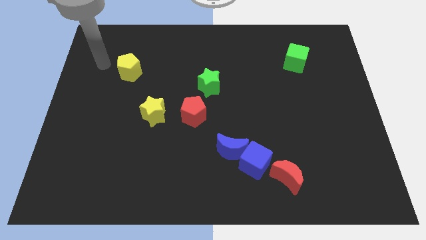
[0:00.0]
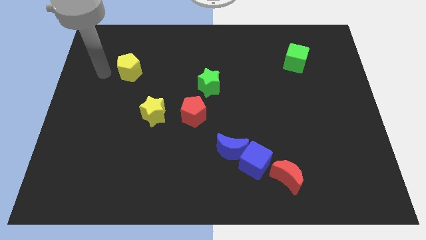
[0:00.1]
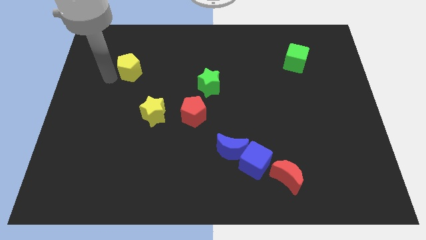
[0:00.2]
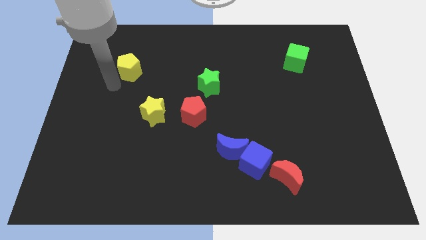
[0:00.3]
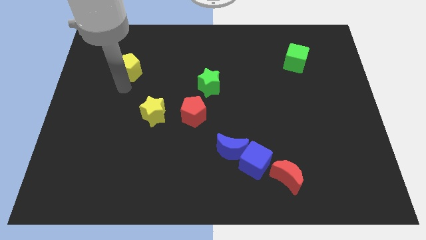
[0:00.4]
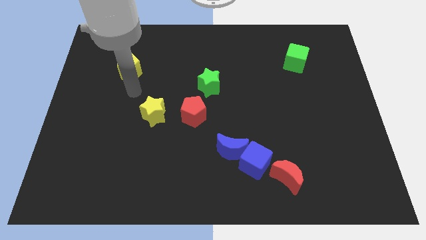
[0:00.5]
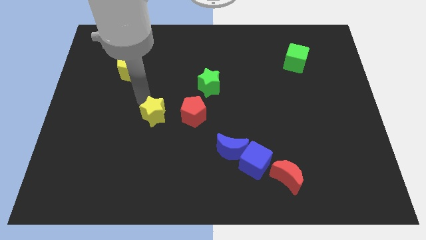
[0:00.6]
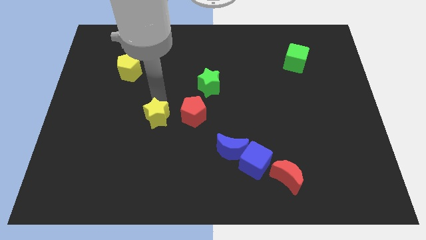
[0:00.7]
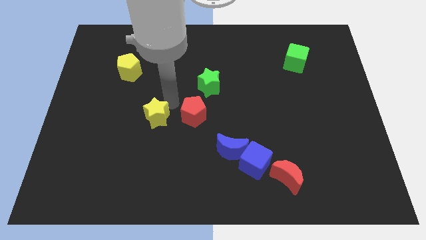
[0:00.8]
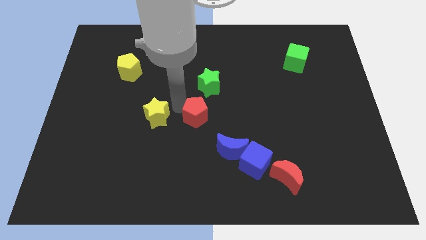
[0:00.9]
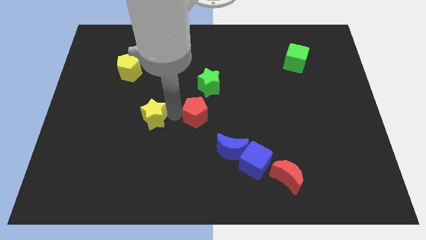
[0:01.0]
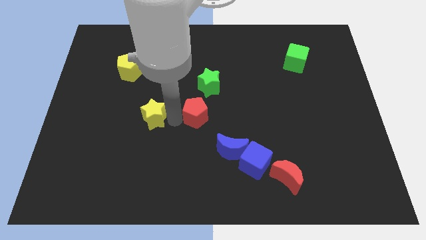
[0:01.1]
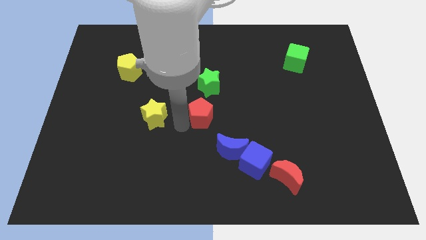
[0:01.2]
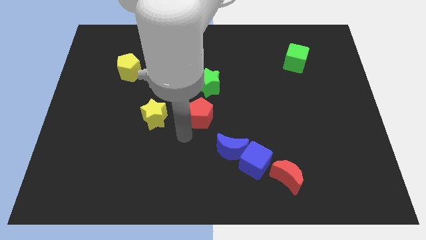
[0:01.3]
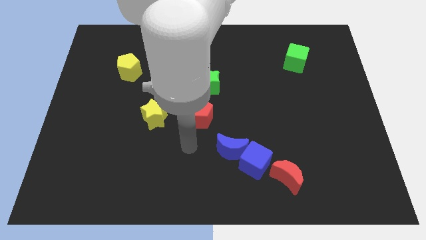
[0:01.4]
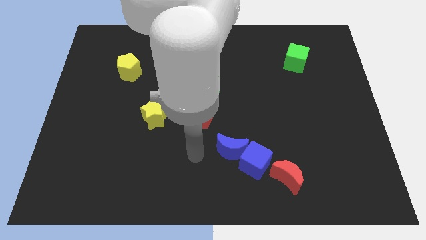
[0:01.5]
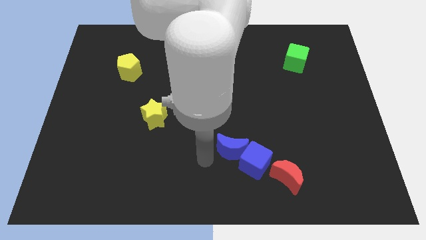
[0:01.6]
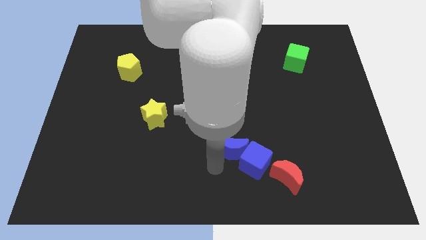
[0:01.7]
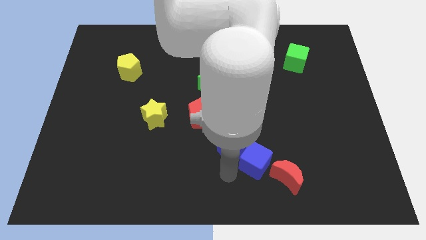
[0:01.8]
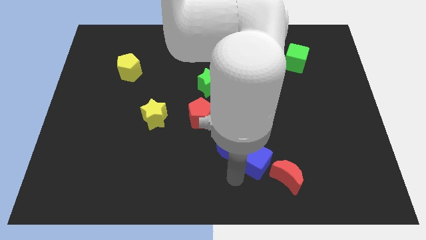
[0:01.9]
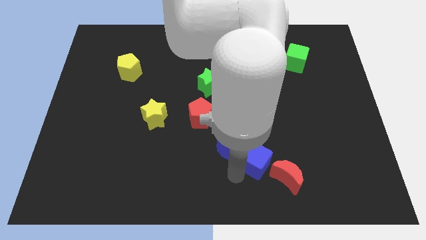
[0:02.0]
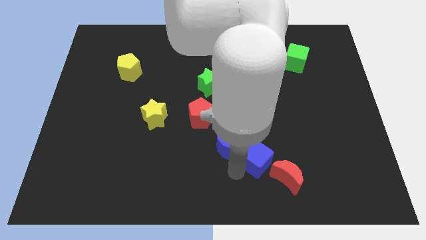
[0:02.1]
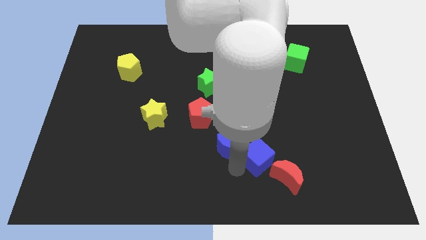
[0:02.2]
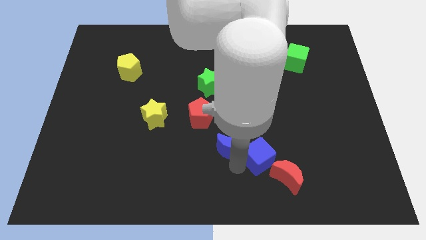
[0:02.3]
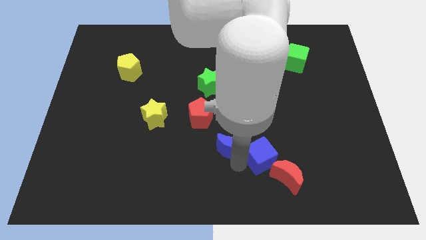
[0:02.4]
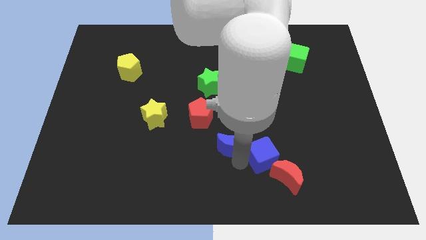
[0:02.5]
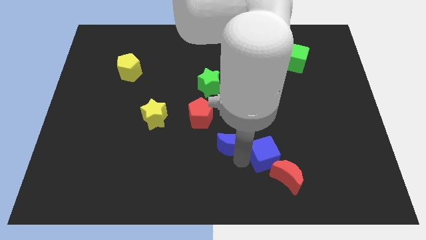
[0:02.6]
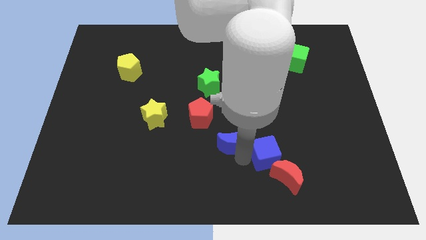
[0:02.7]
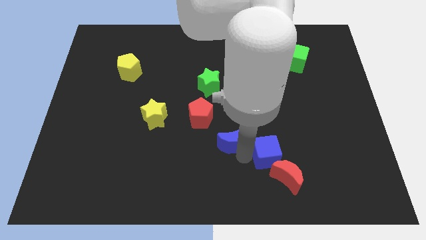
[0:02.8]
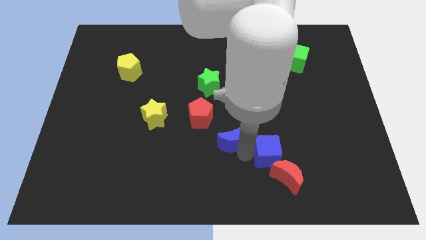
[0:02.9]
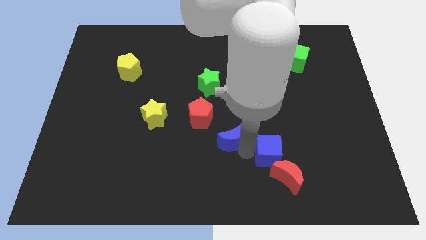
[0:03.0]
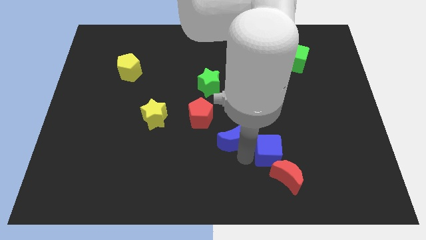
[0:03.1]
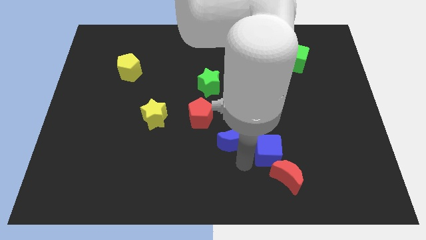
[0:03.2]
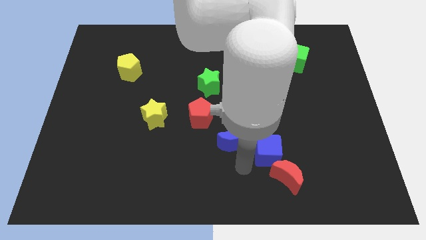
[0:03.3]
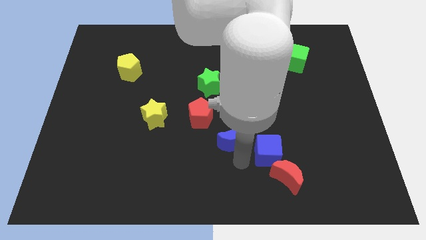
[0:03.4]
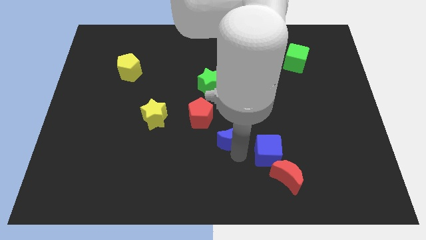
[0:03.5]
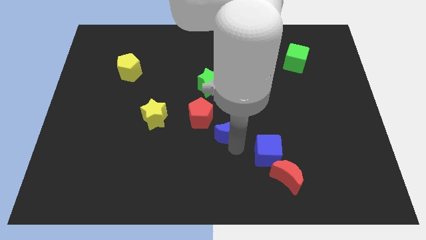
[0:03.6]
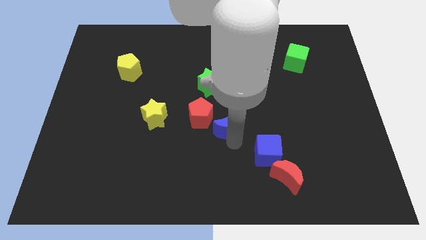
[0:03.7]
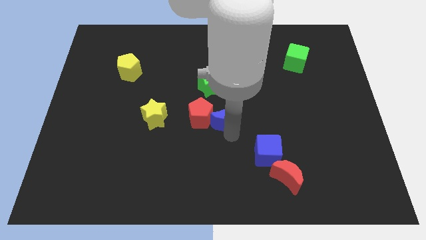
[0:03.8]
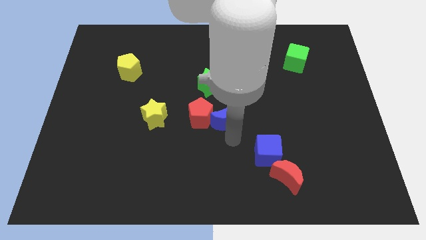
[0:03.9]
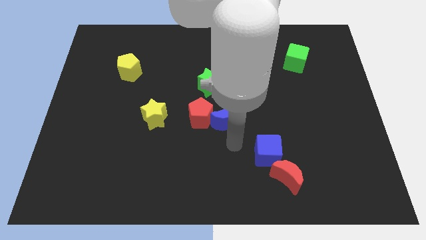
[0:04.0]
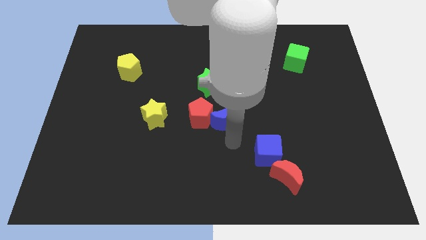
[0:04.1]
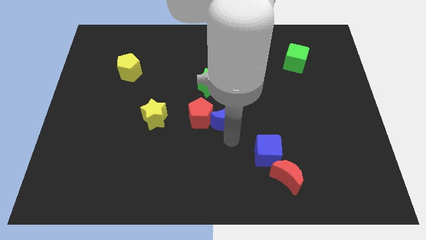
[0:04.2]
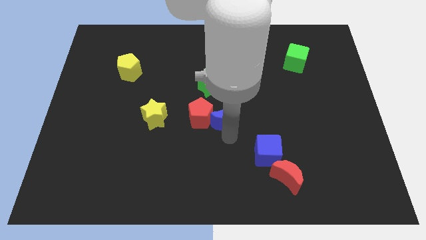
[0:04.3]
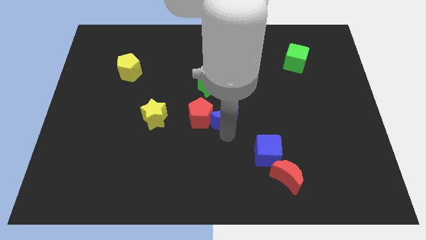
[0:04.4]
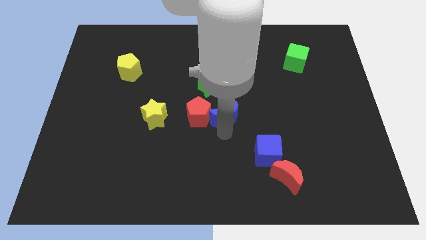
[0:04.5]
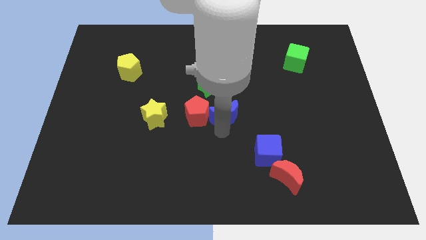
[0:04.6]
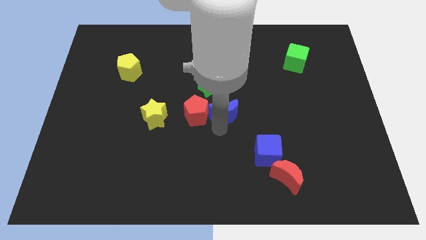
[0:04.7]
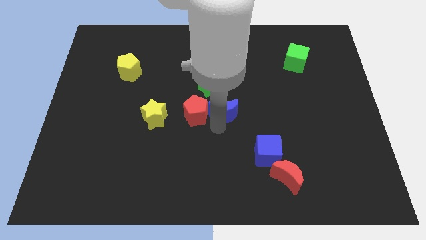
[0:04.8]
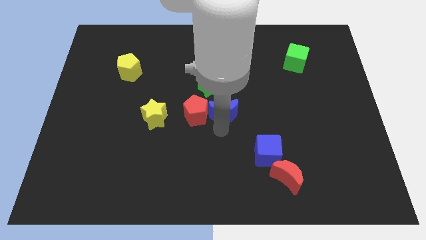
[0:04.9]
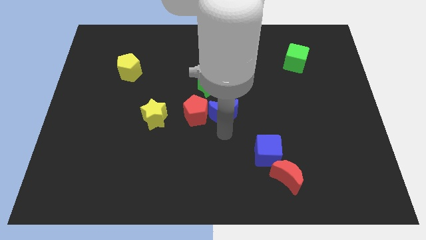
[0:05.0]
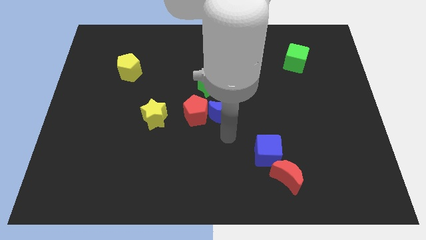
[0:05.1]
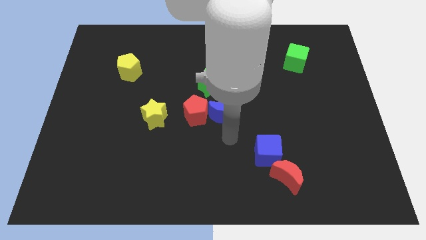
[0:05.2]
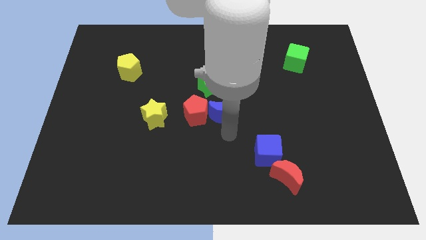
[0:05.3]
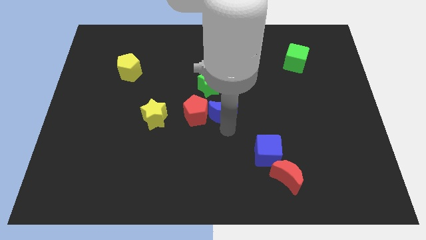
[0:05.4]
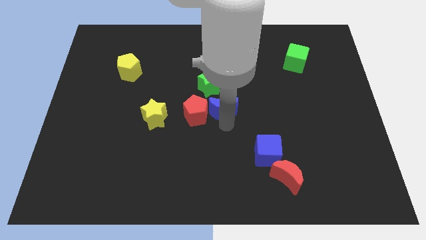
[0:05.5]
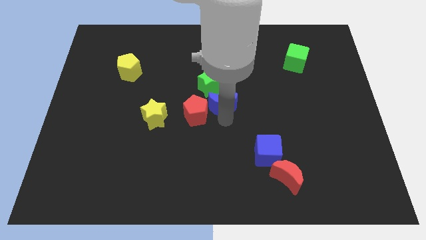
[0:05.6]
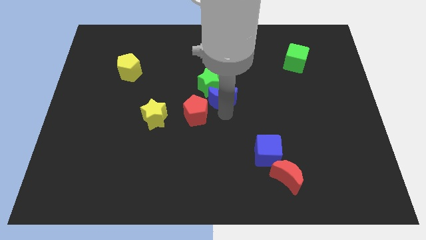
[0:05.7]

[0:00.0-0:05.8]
push the blue moon next to the green star

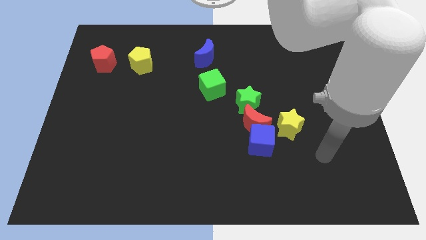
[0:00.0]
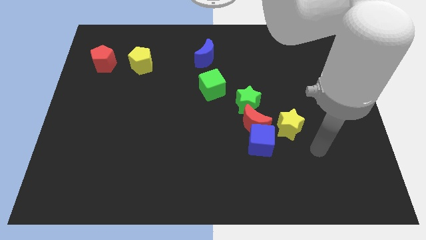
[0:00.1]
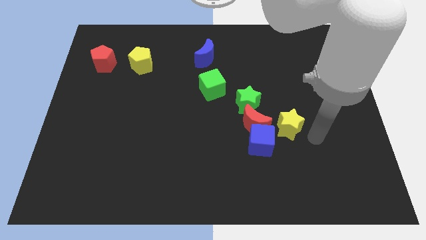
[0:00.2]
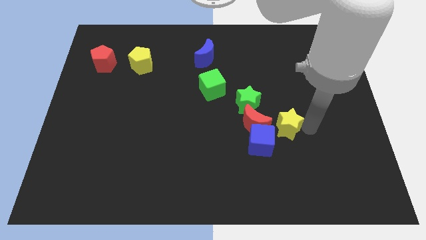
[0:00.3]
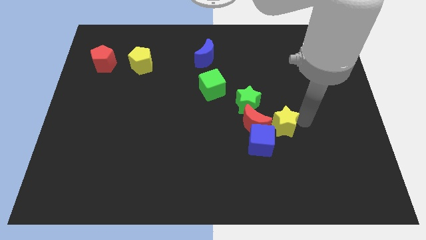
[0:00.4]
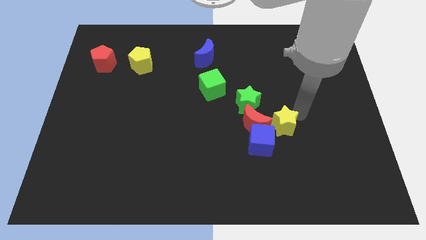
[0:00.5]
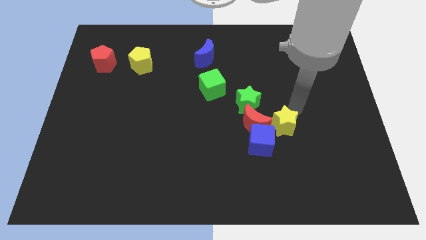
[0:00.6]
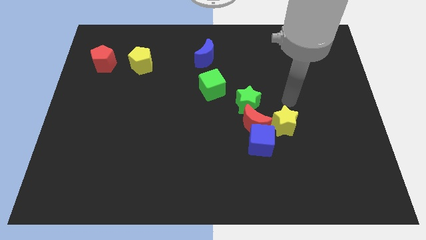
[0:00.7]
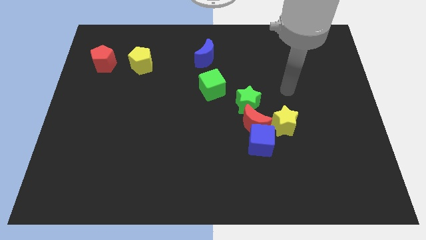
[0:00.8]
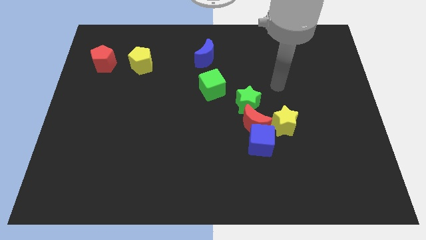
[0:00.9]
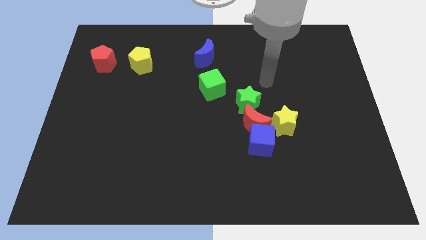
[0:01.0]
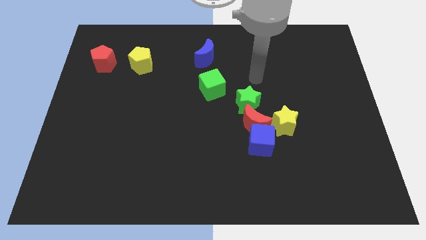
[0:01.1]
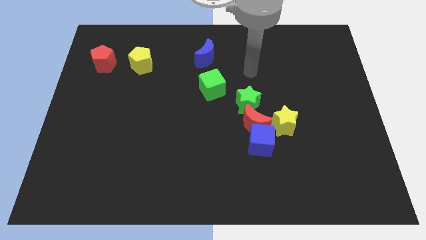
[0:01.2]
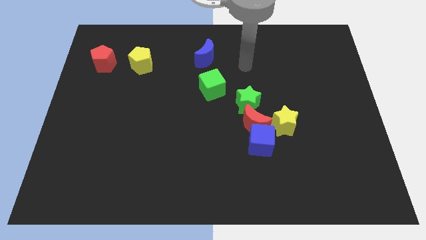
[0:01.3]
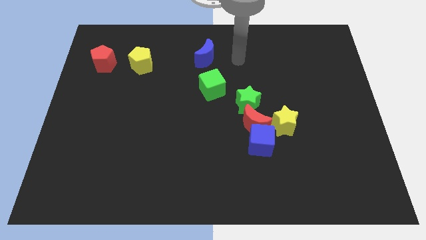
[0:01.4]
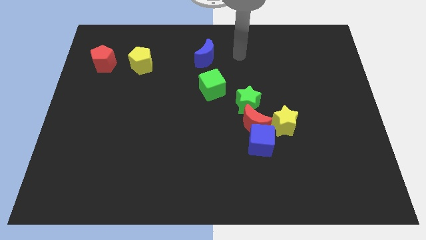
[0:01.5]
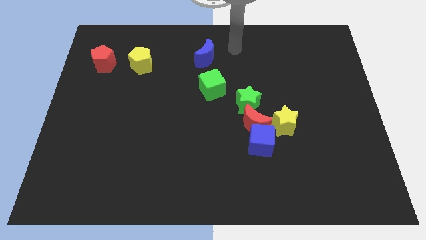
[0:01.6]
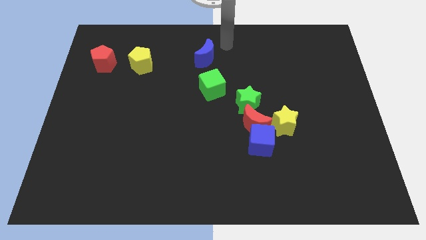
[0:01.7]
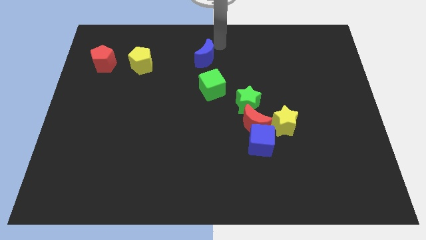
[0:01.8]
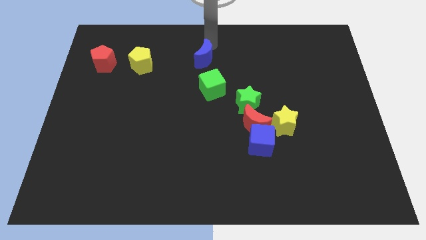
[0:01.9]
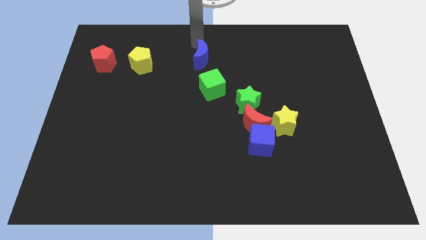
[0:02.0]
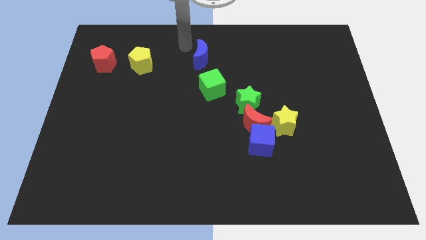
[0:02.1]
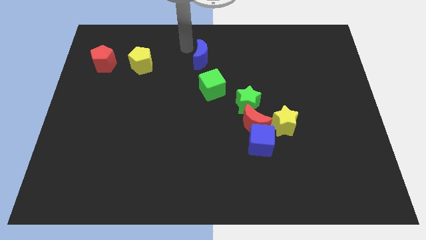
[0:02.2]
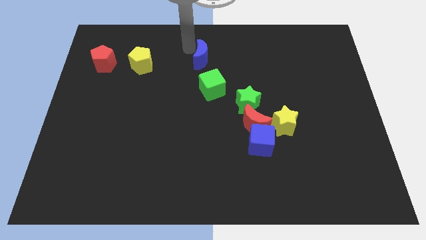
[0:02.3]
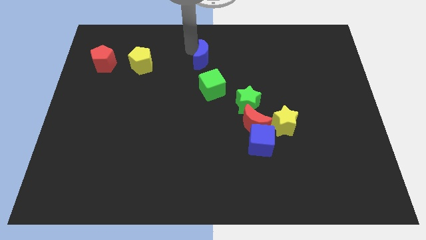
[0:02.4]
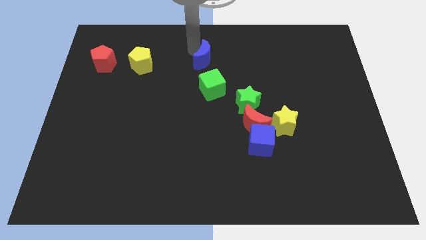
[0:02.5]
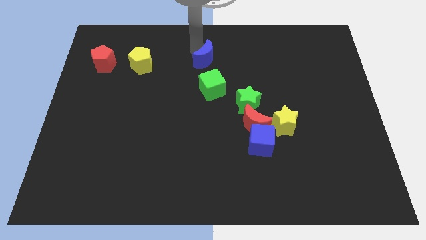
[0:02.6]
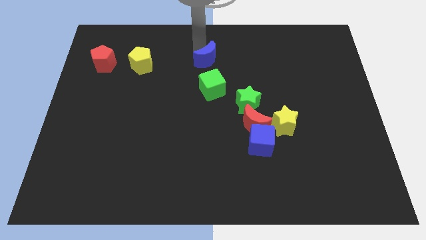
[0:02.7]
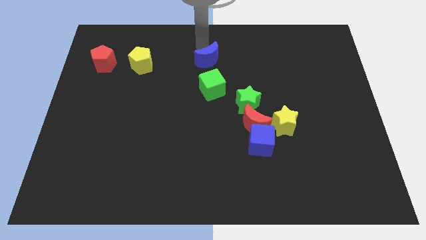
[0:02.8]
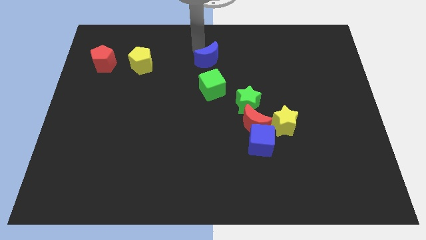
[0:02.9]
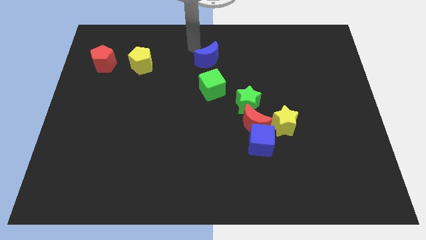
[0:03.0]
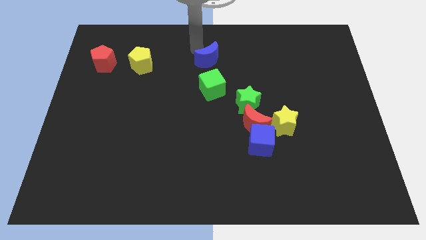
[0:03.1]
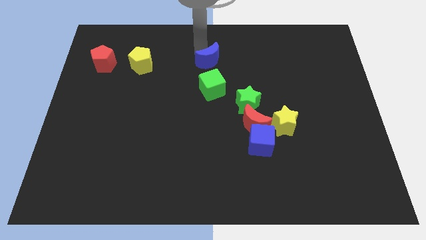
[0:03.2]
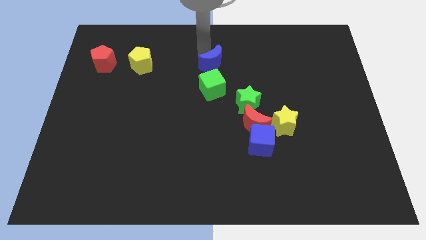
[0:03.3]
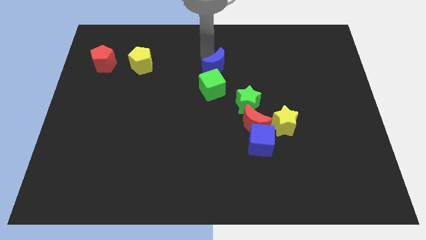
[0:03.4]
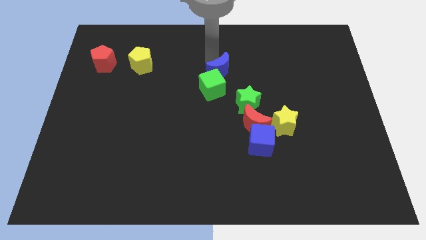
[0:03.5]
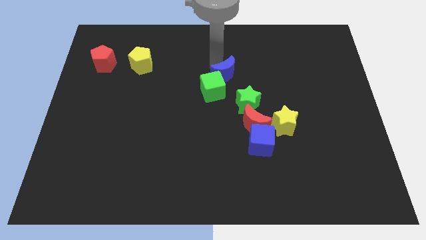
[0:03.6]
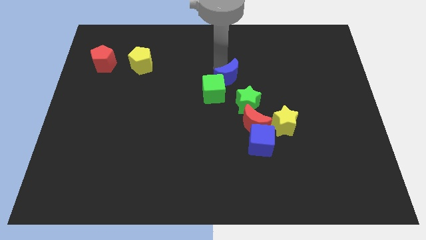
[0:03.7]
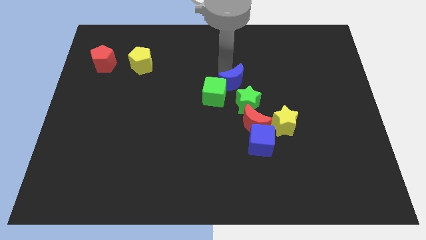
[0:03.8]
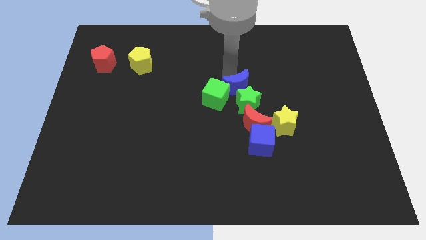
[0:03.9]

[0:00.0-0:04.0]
slide the blue moon close to the green star
